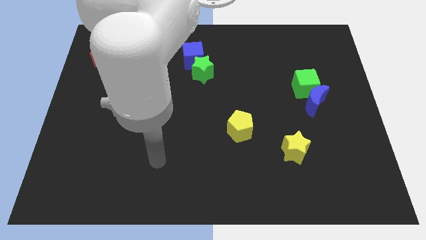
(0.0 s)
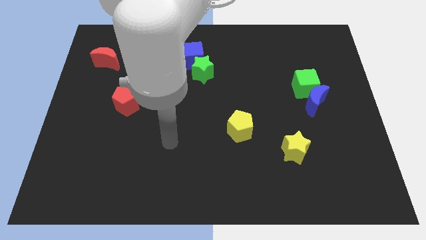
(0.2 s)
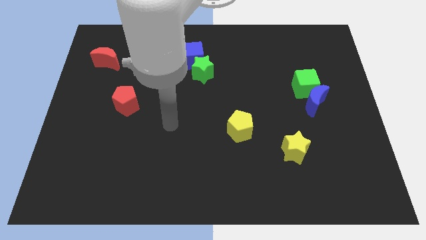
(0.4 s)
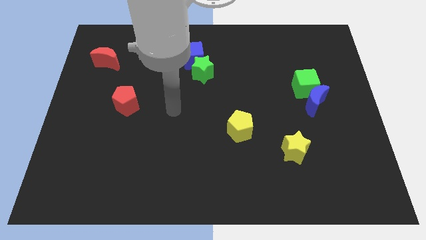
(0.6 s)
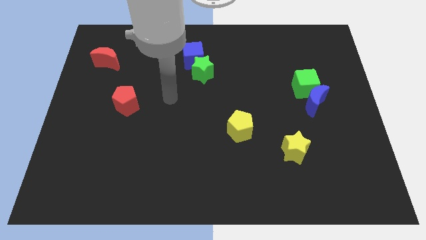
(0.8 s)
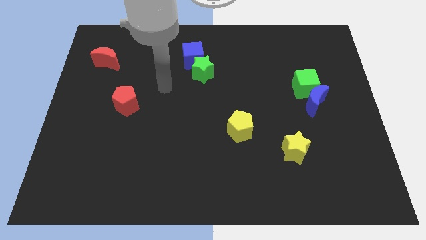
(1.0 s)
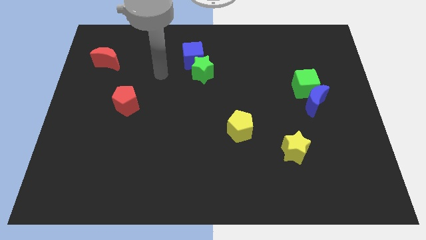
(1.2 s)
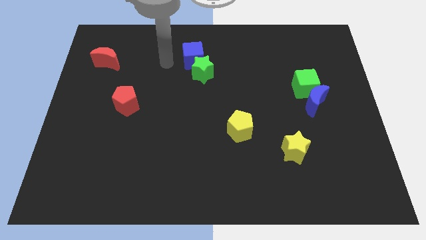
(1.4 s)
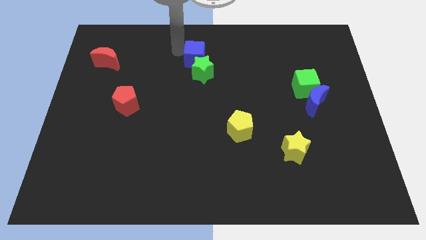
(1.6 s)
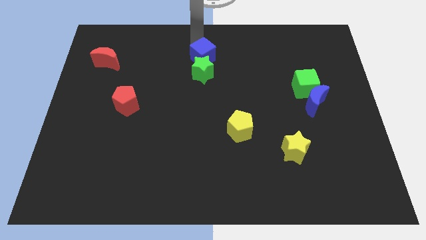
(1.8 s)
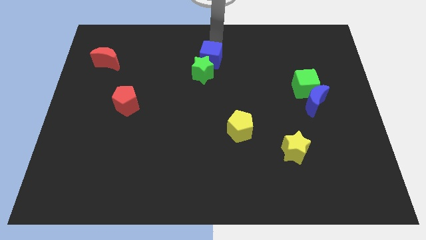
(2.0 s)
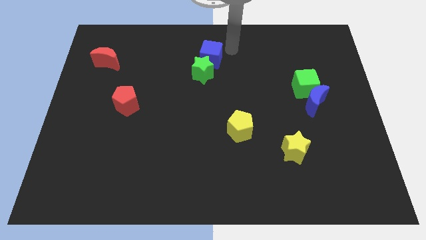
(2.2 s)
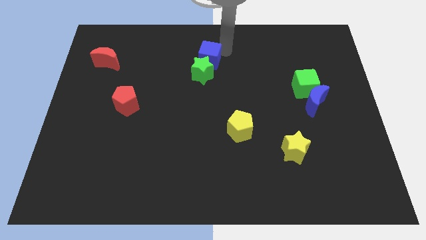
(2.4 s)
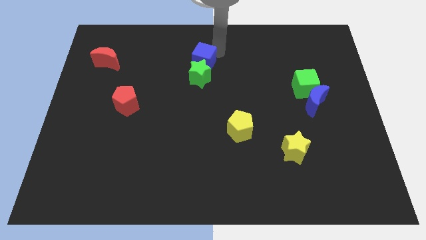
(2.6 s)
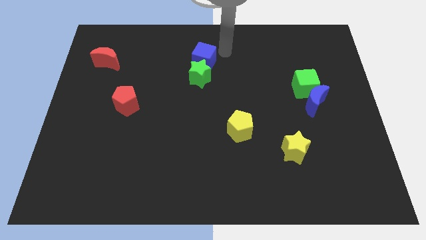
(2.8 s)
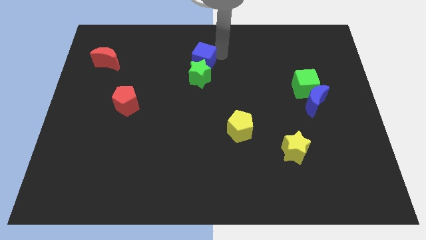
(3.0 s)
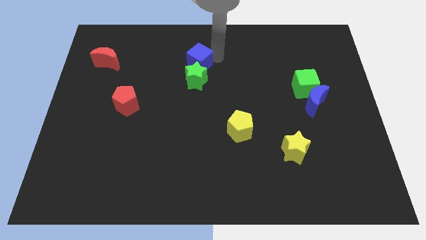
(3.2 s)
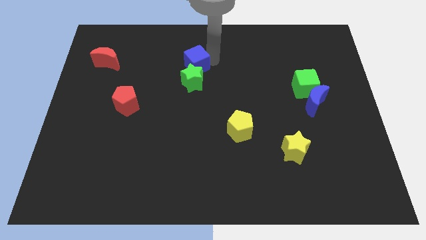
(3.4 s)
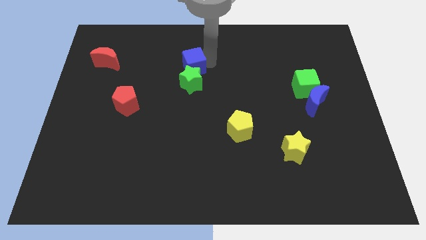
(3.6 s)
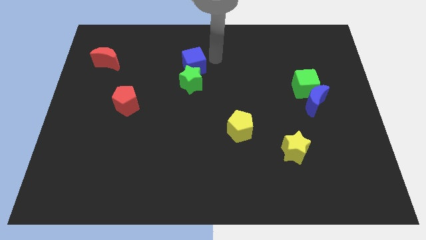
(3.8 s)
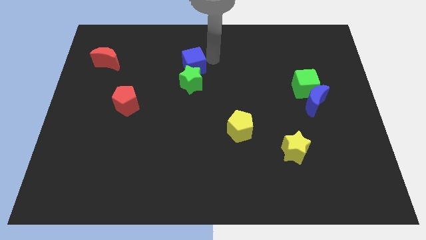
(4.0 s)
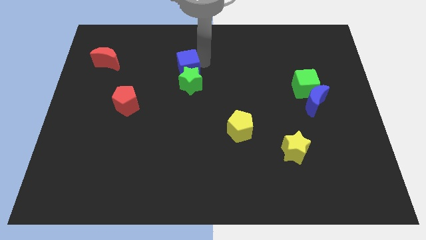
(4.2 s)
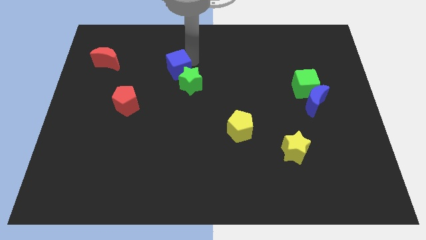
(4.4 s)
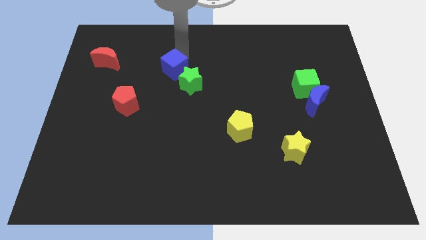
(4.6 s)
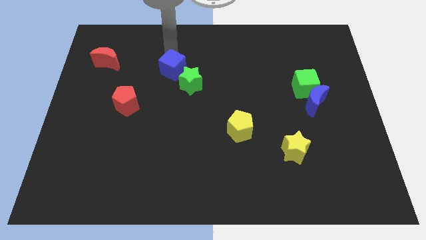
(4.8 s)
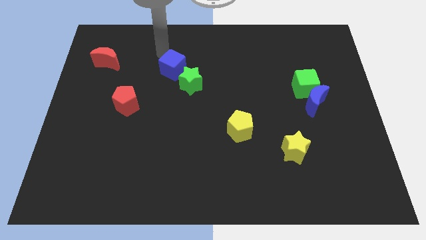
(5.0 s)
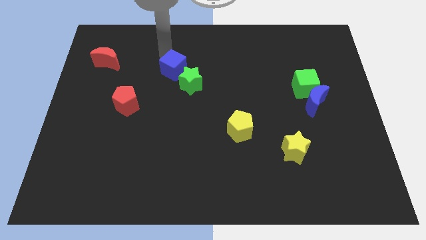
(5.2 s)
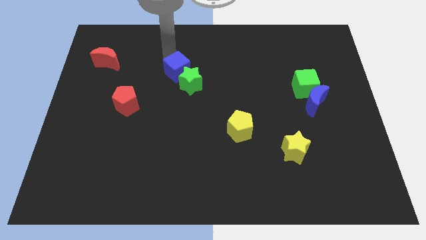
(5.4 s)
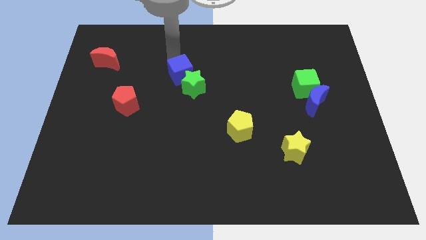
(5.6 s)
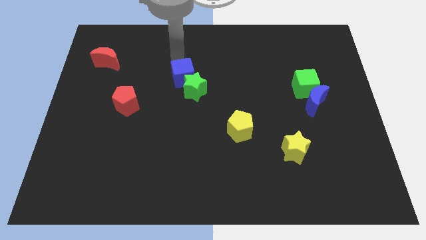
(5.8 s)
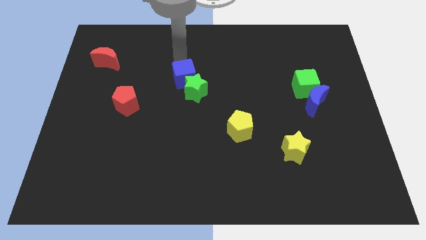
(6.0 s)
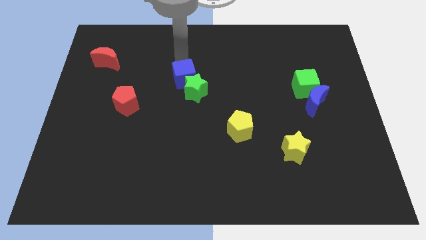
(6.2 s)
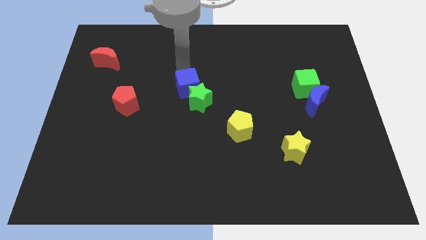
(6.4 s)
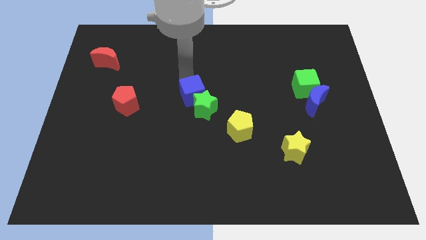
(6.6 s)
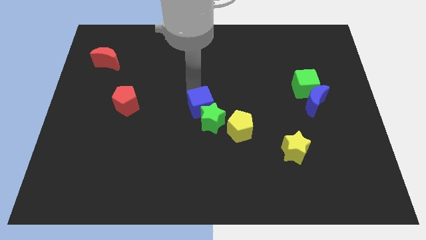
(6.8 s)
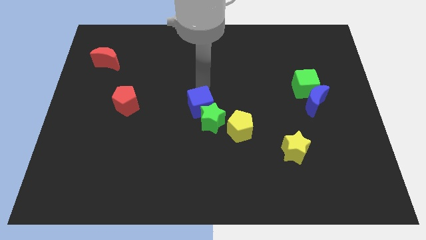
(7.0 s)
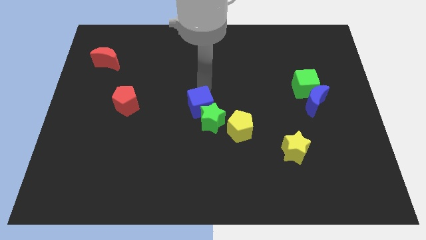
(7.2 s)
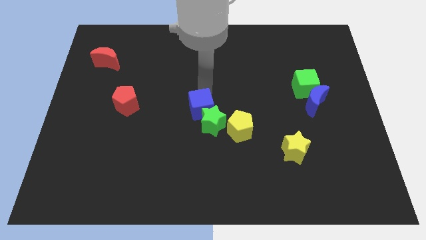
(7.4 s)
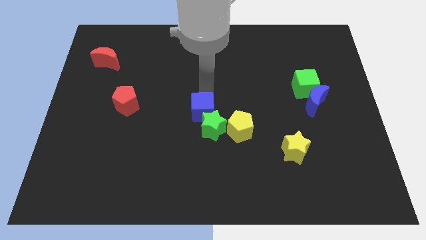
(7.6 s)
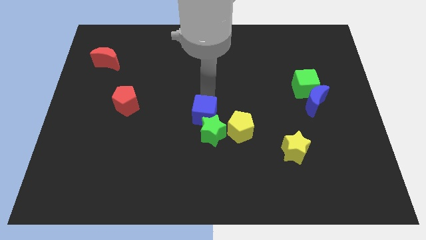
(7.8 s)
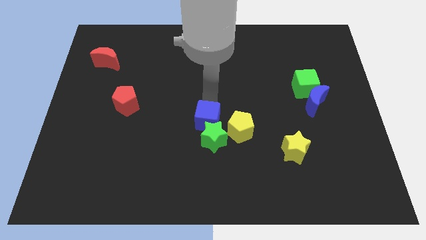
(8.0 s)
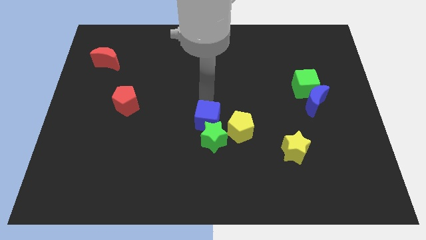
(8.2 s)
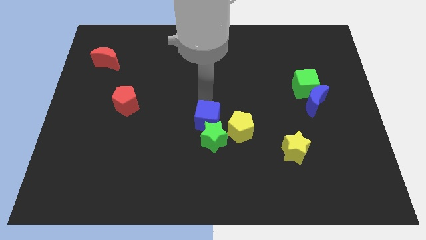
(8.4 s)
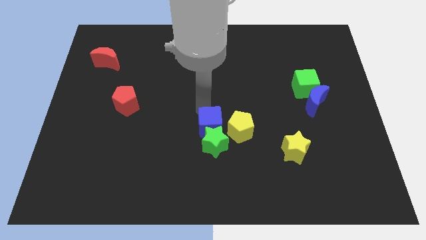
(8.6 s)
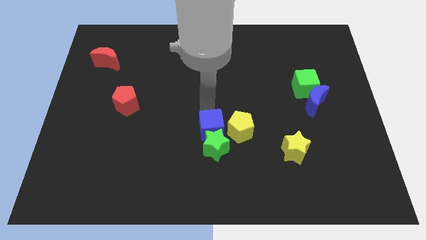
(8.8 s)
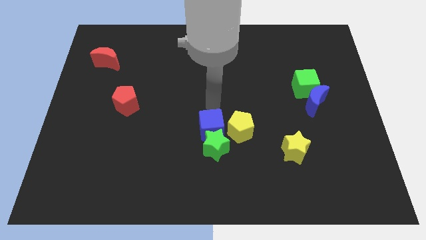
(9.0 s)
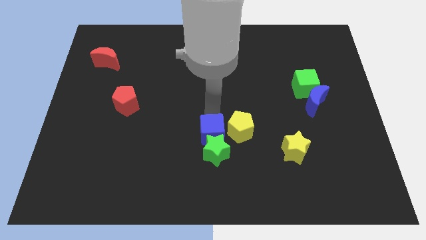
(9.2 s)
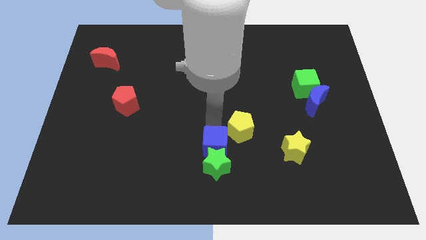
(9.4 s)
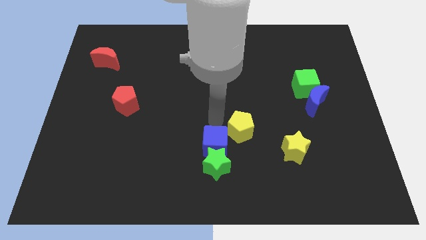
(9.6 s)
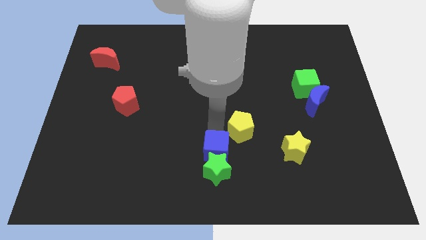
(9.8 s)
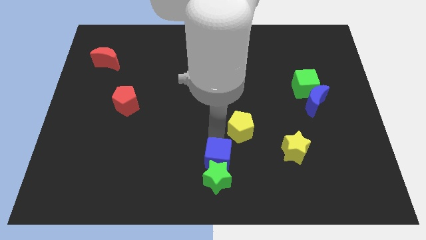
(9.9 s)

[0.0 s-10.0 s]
push the blue cube to the bottom

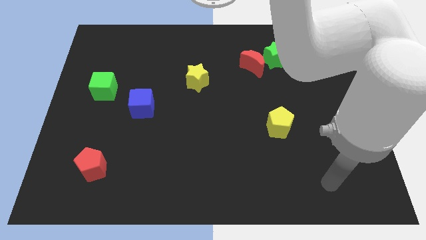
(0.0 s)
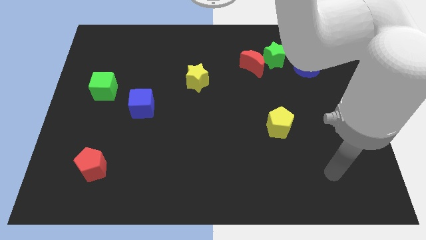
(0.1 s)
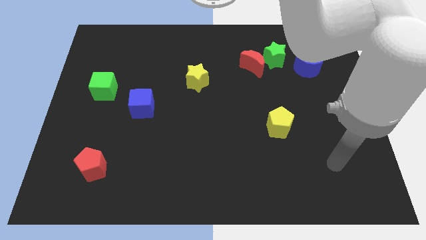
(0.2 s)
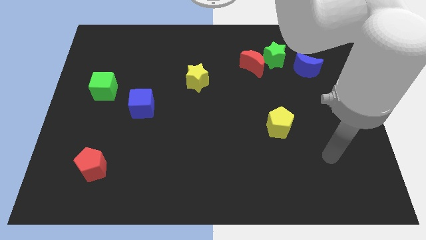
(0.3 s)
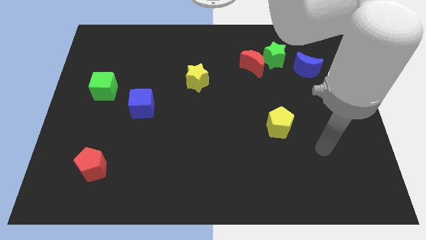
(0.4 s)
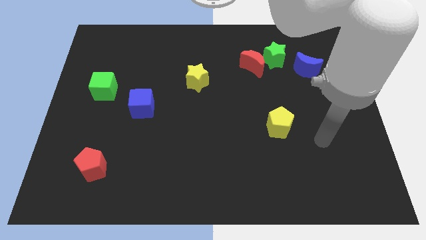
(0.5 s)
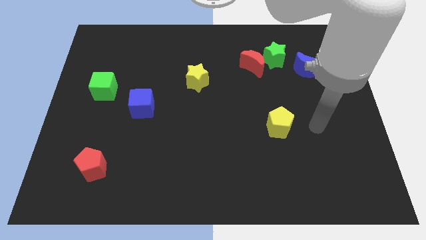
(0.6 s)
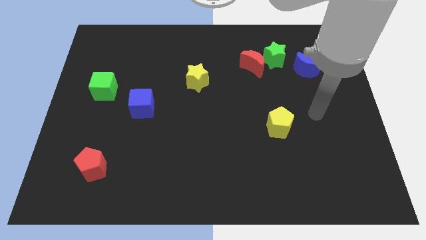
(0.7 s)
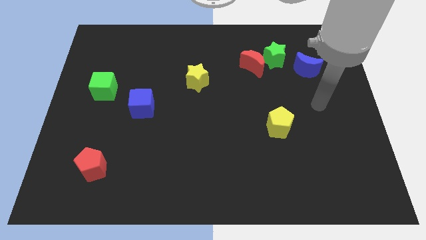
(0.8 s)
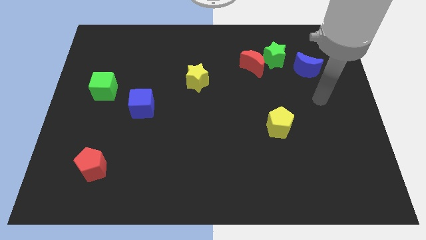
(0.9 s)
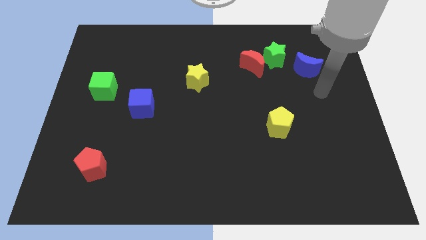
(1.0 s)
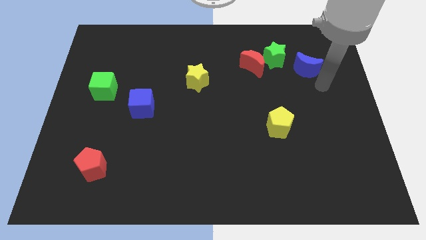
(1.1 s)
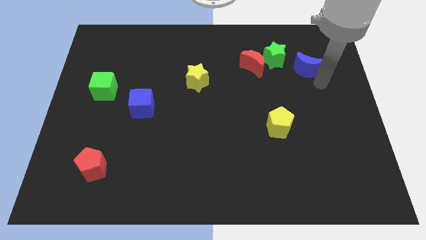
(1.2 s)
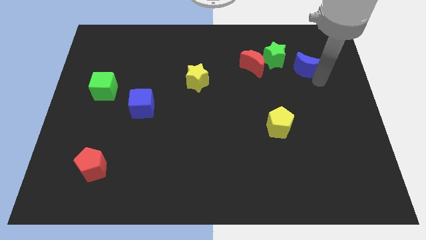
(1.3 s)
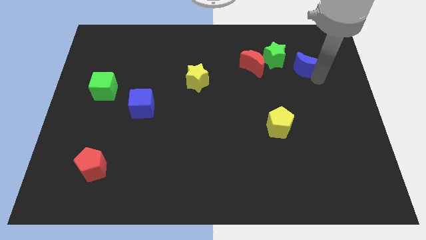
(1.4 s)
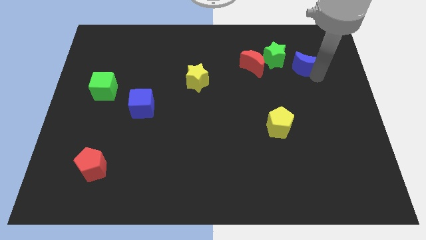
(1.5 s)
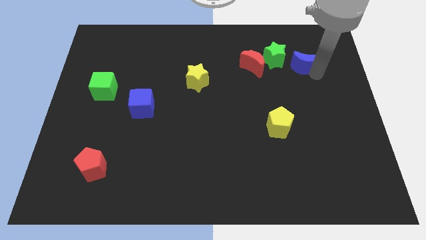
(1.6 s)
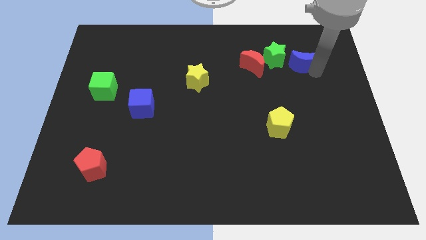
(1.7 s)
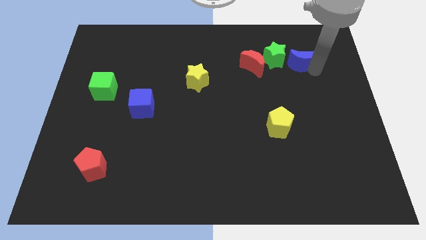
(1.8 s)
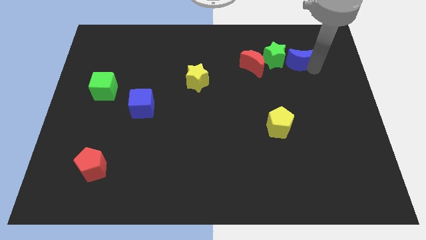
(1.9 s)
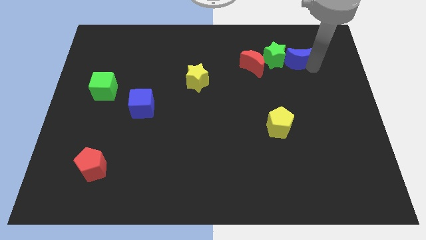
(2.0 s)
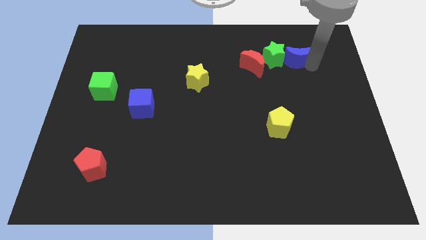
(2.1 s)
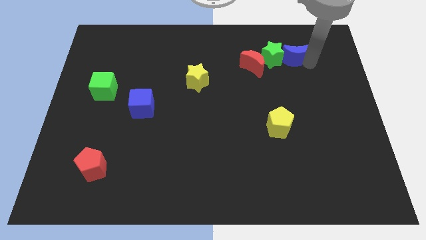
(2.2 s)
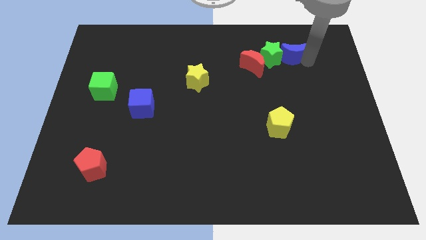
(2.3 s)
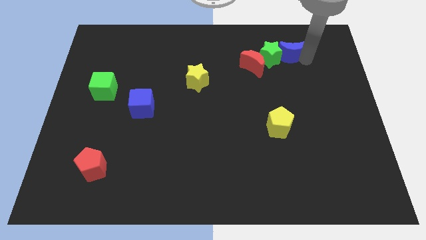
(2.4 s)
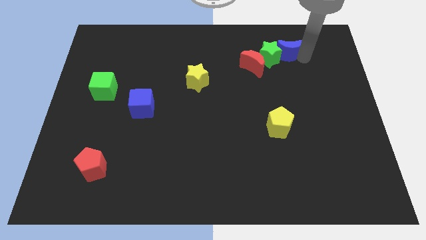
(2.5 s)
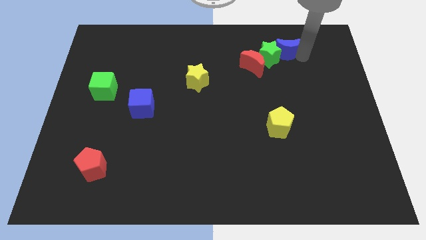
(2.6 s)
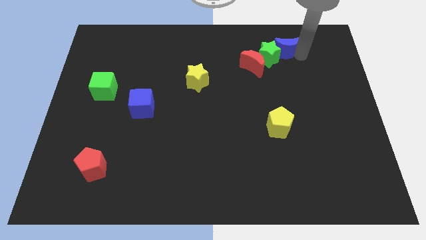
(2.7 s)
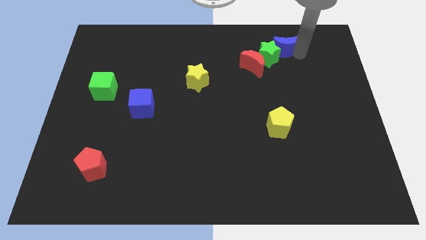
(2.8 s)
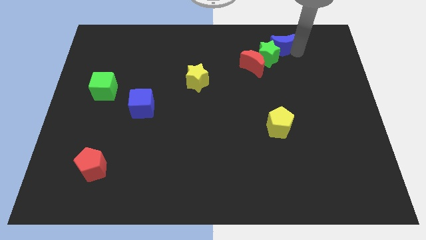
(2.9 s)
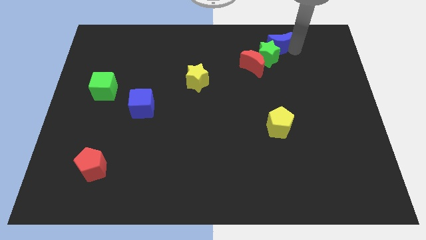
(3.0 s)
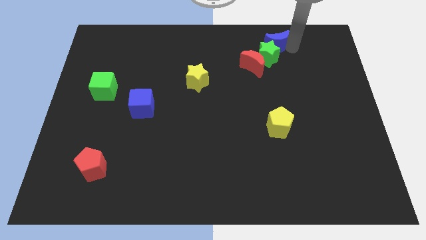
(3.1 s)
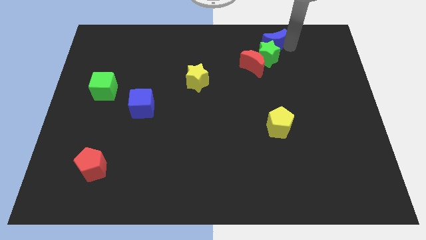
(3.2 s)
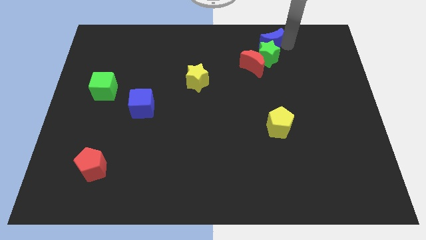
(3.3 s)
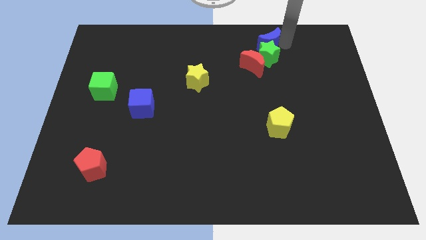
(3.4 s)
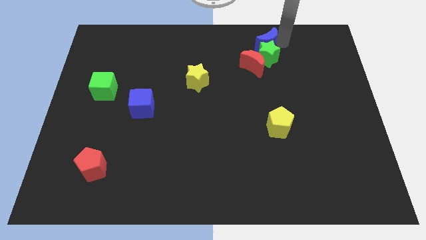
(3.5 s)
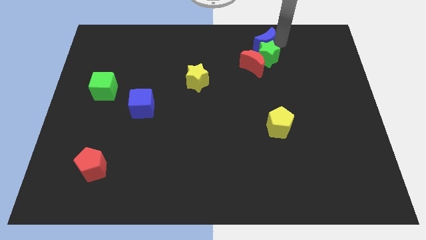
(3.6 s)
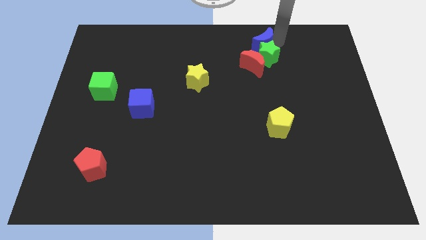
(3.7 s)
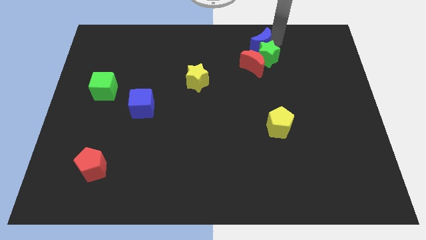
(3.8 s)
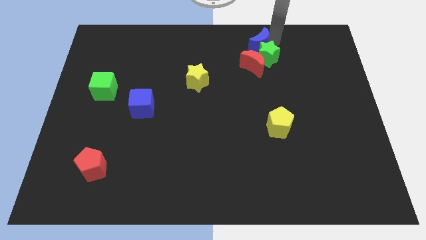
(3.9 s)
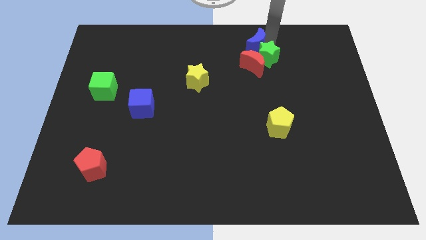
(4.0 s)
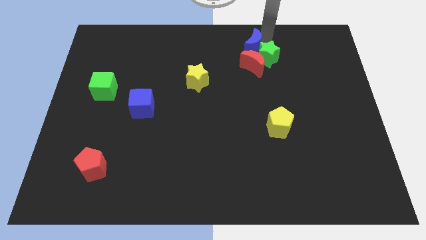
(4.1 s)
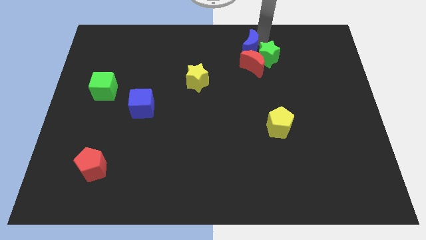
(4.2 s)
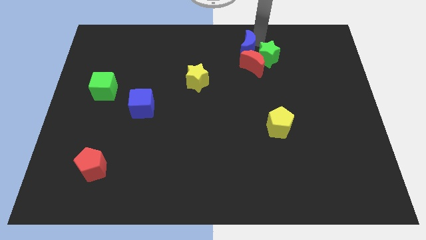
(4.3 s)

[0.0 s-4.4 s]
push the blue moon to the top side
